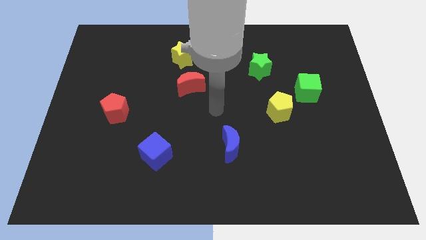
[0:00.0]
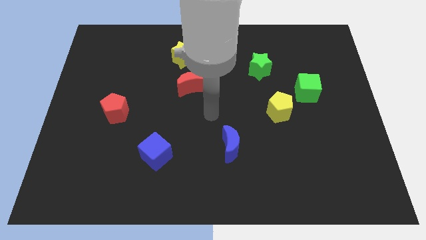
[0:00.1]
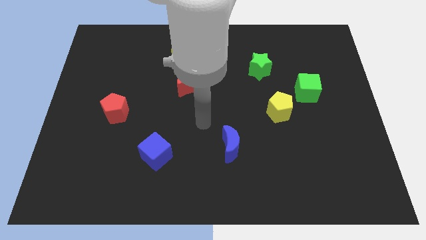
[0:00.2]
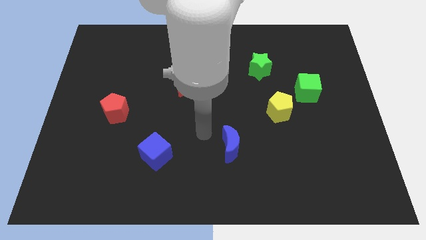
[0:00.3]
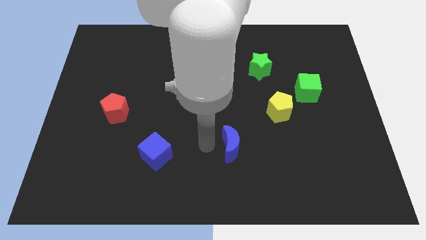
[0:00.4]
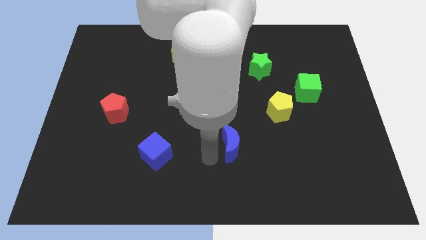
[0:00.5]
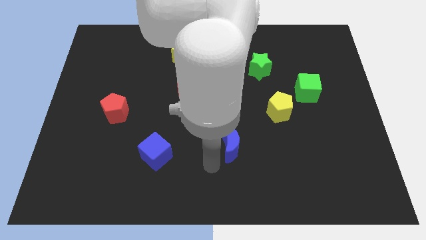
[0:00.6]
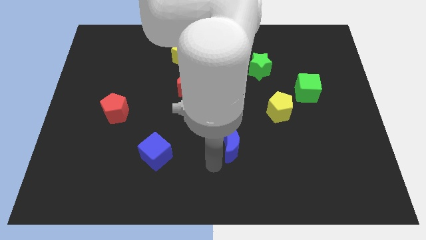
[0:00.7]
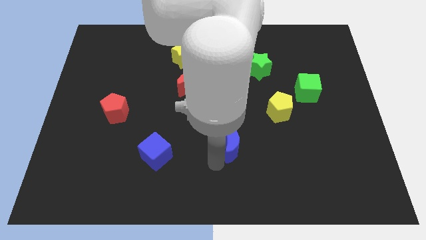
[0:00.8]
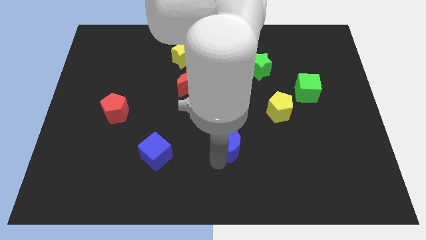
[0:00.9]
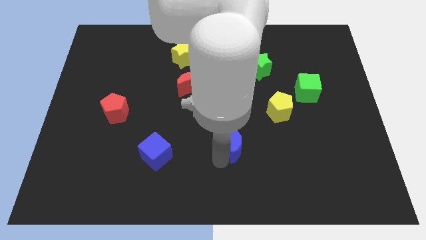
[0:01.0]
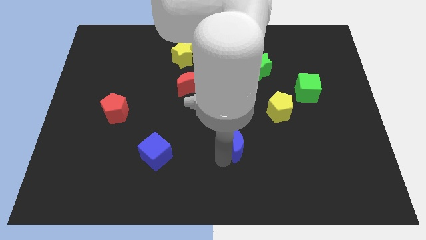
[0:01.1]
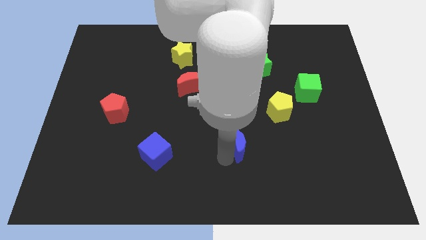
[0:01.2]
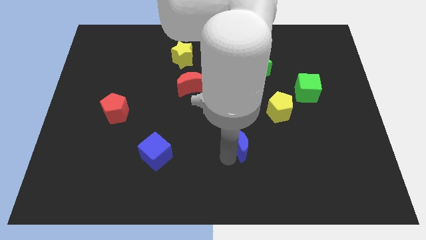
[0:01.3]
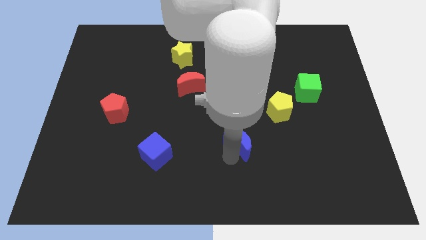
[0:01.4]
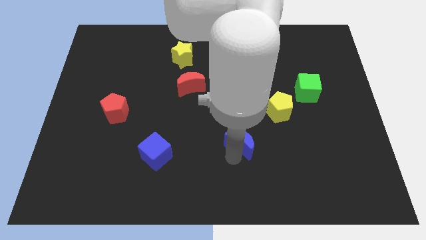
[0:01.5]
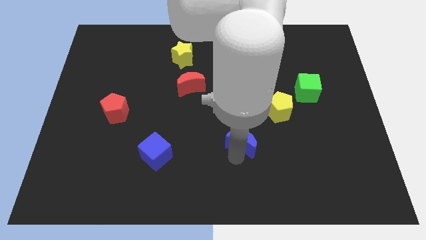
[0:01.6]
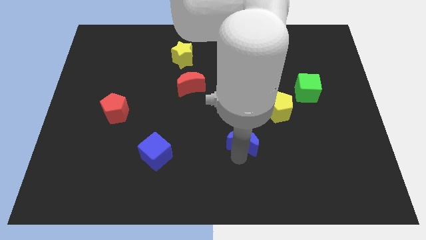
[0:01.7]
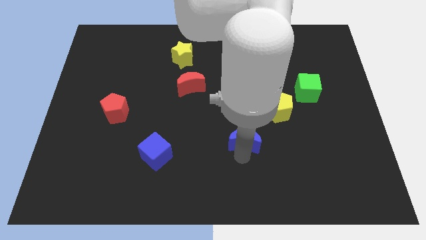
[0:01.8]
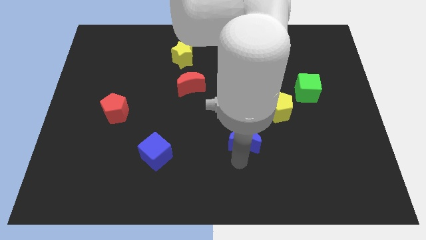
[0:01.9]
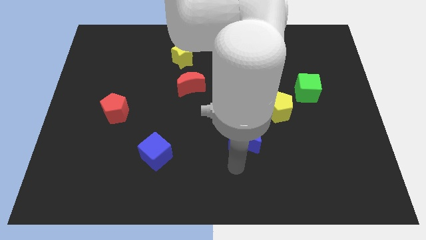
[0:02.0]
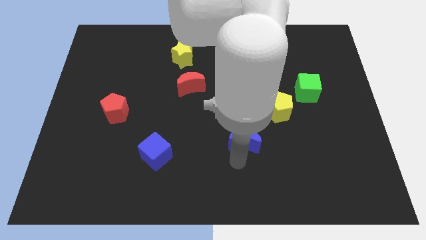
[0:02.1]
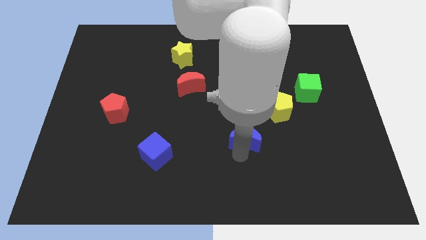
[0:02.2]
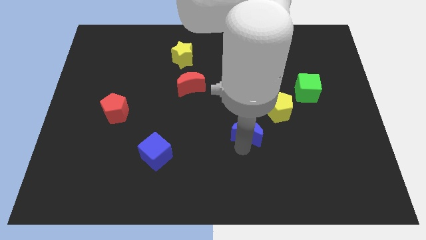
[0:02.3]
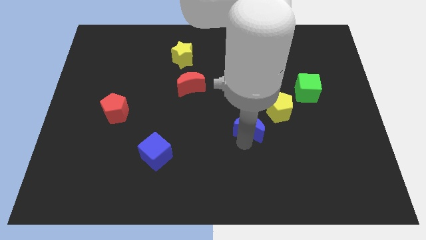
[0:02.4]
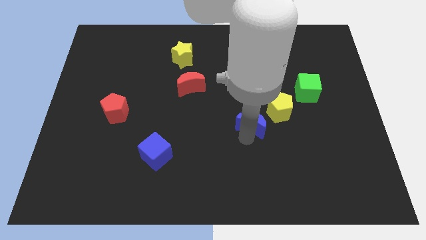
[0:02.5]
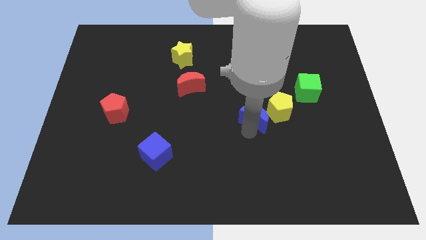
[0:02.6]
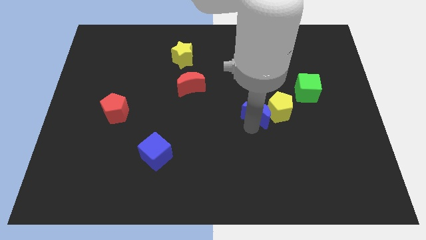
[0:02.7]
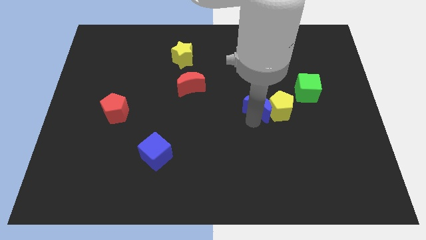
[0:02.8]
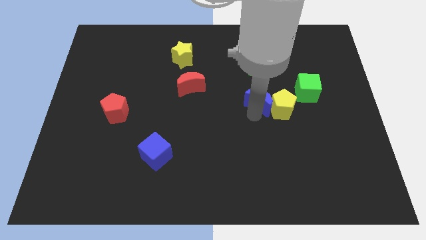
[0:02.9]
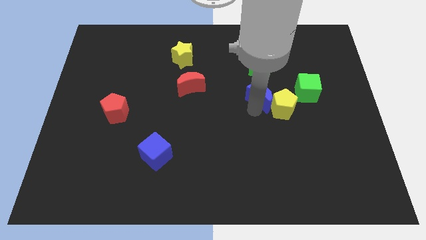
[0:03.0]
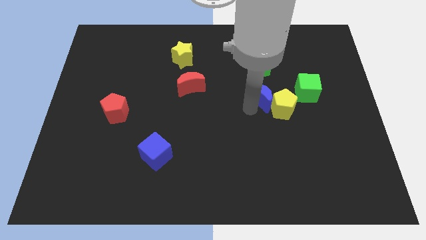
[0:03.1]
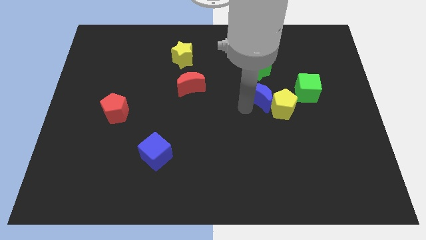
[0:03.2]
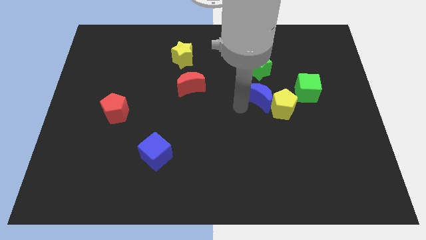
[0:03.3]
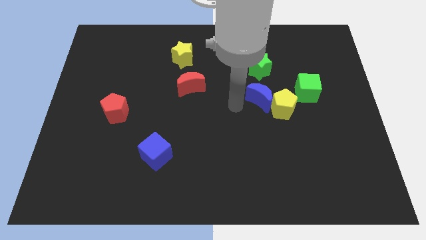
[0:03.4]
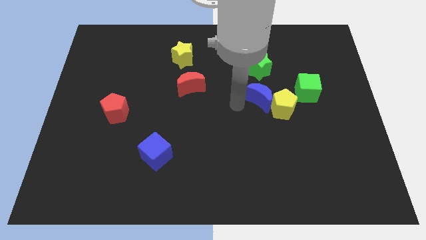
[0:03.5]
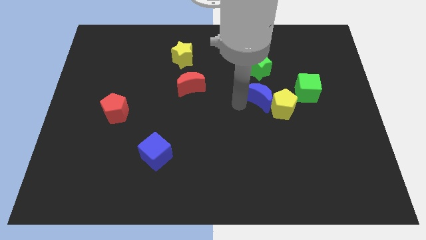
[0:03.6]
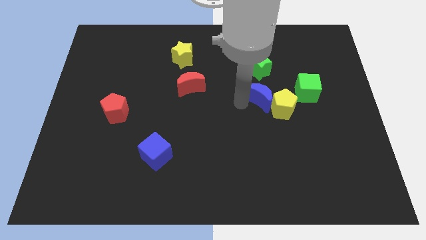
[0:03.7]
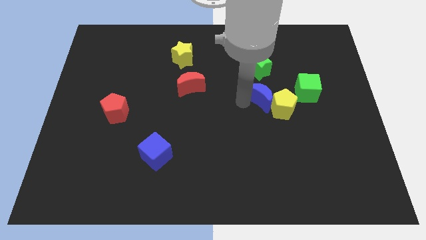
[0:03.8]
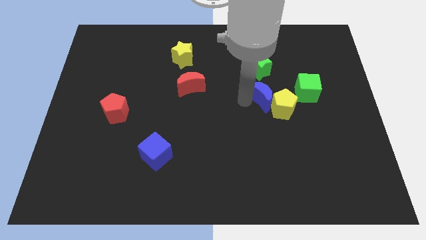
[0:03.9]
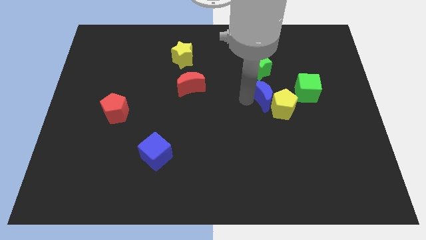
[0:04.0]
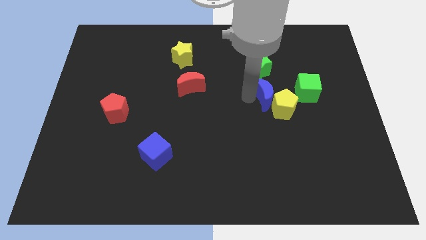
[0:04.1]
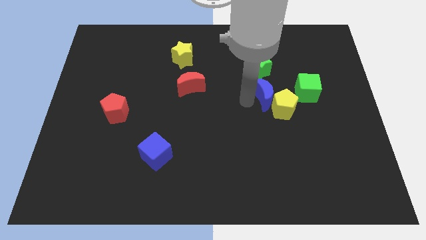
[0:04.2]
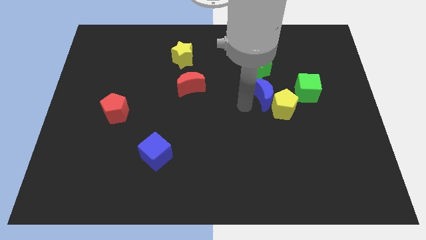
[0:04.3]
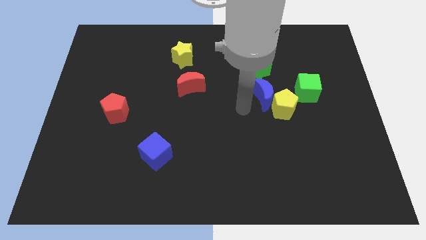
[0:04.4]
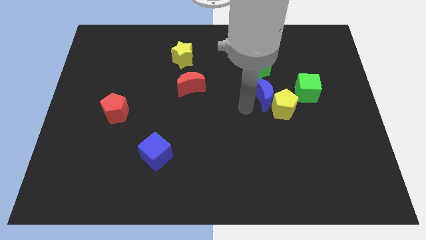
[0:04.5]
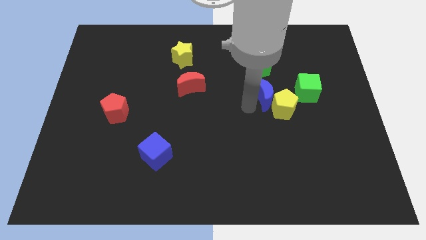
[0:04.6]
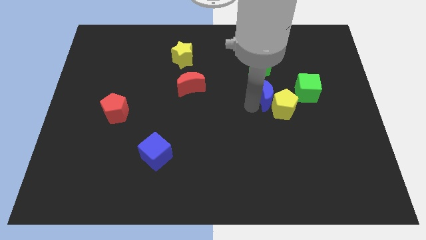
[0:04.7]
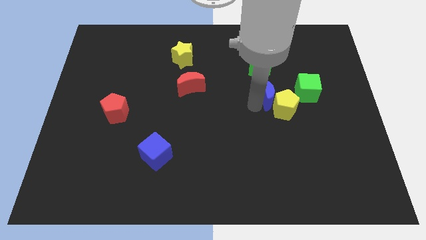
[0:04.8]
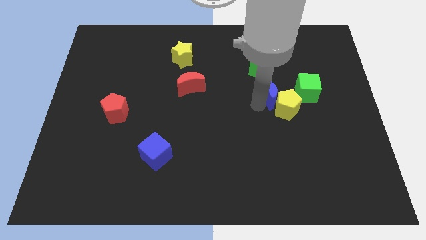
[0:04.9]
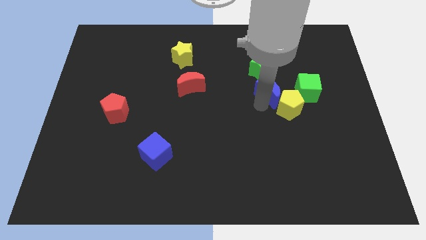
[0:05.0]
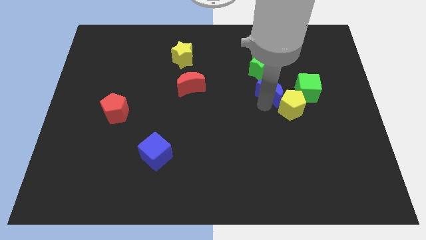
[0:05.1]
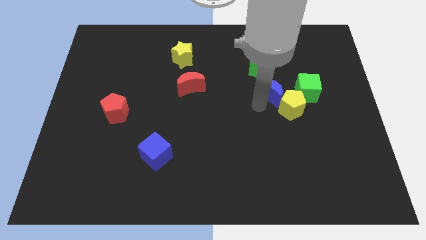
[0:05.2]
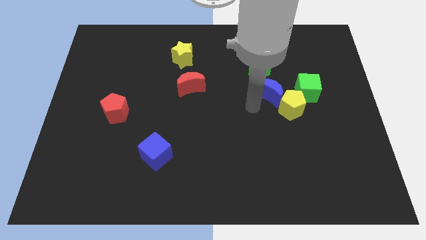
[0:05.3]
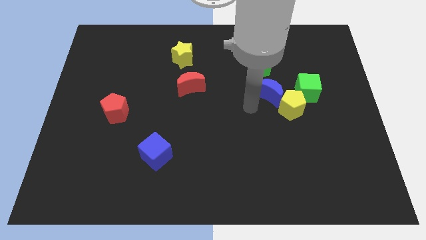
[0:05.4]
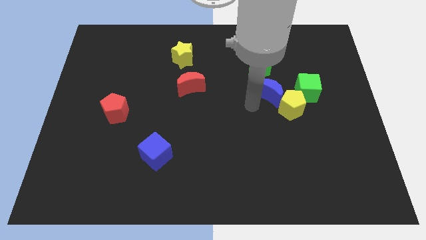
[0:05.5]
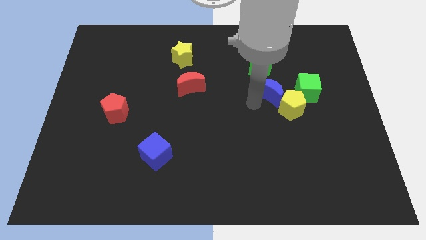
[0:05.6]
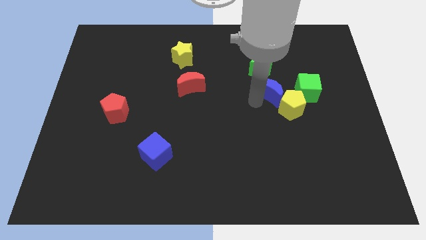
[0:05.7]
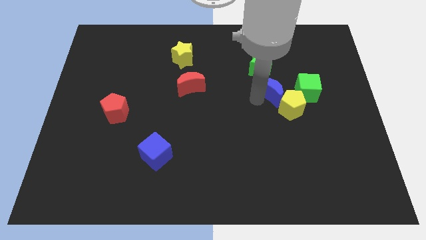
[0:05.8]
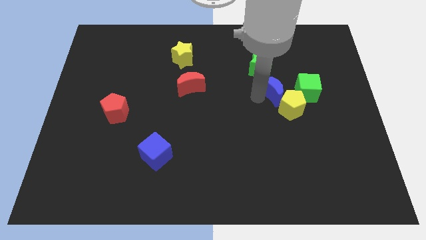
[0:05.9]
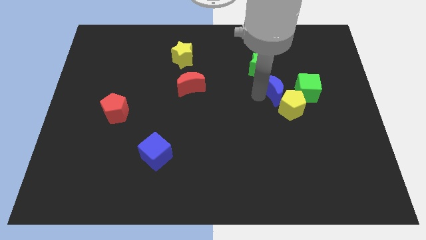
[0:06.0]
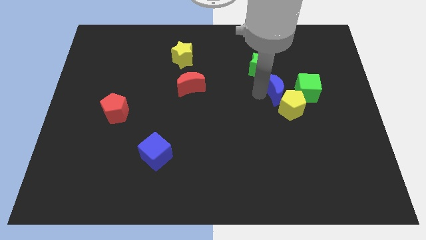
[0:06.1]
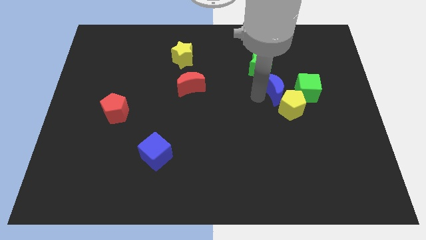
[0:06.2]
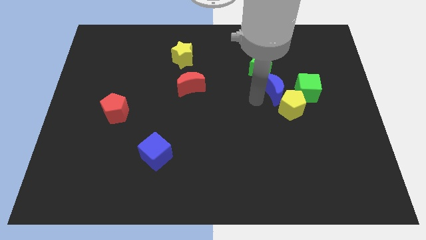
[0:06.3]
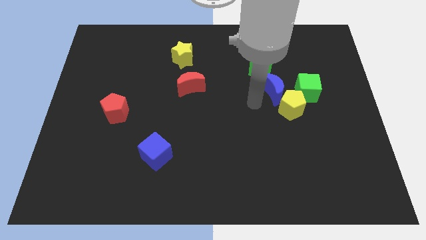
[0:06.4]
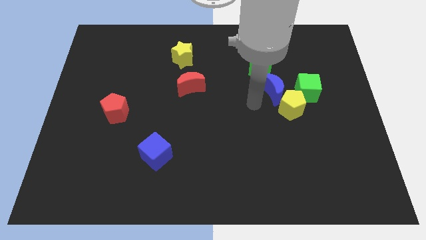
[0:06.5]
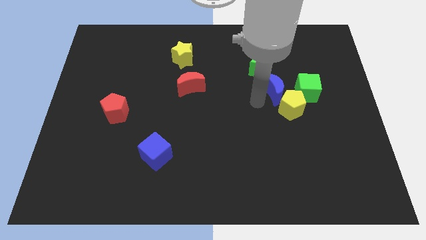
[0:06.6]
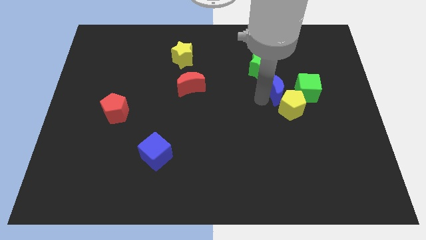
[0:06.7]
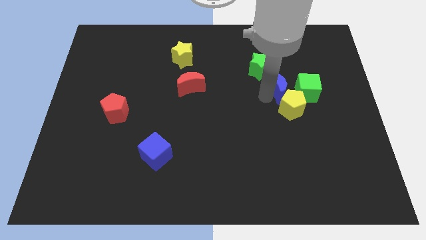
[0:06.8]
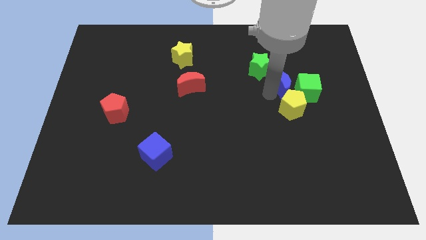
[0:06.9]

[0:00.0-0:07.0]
push the blue moon diagonally up and to the right

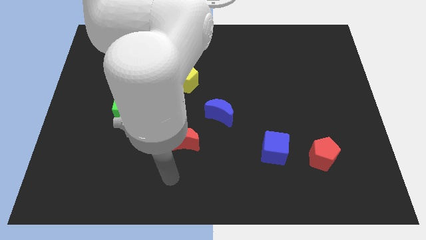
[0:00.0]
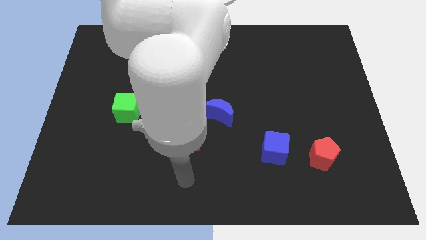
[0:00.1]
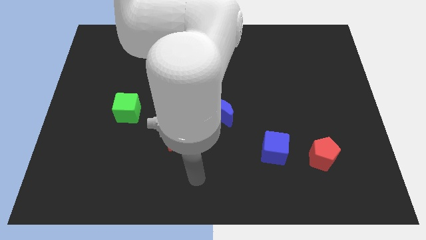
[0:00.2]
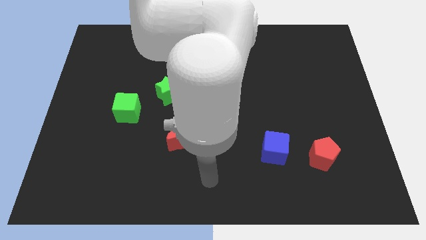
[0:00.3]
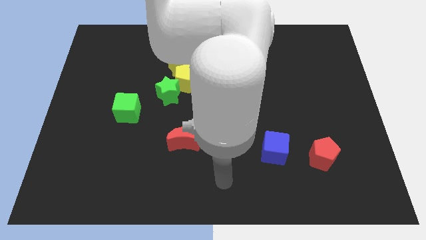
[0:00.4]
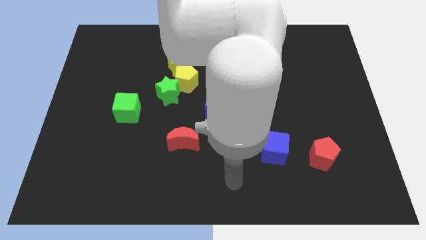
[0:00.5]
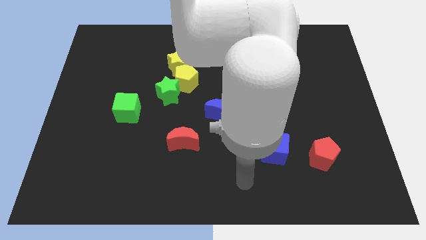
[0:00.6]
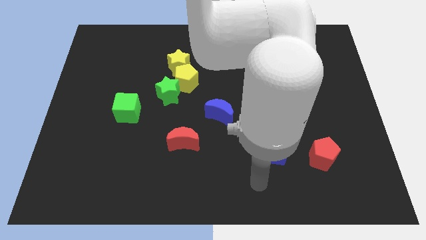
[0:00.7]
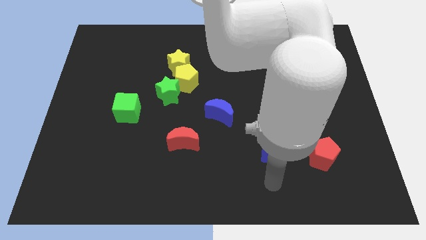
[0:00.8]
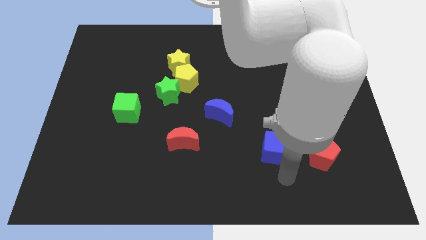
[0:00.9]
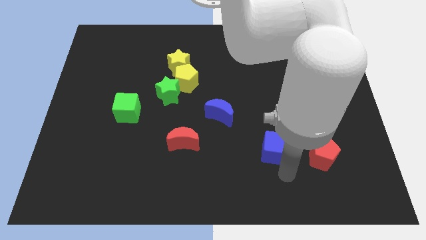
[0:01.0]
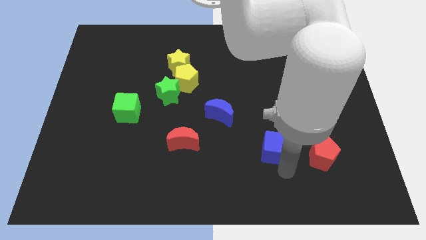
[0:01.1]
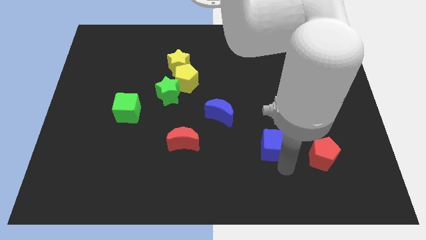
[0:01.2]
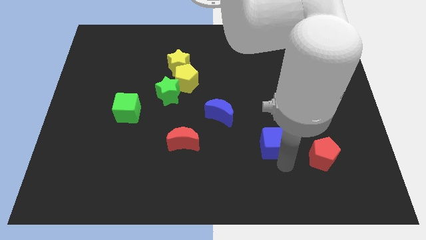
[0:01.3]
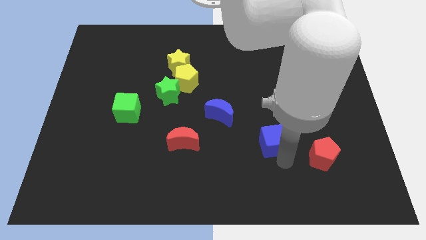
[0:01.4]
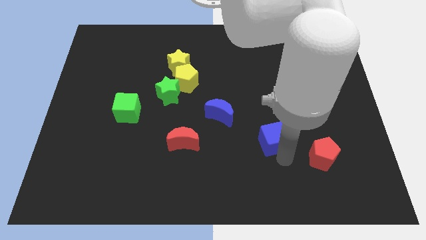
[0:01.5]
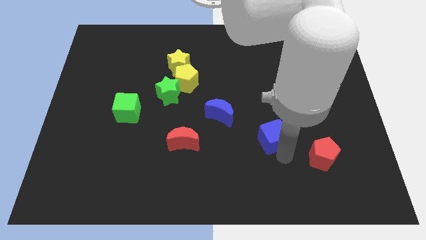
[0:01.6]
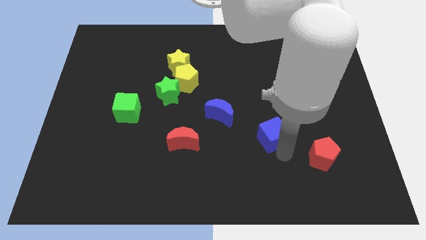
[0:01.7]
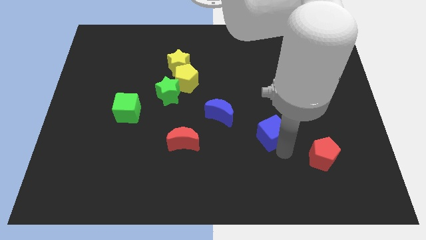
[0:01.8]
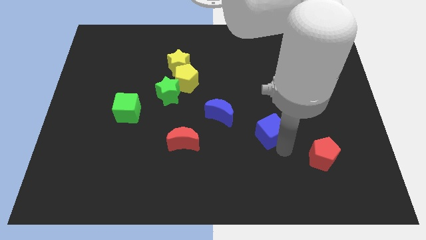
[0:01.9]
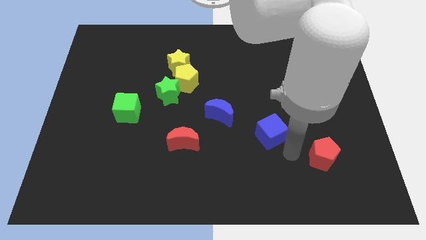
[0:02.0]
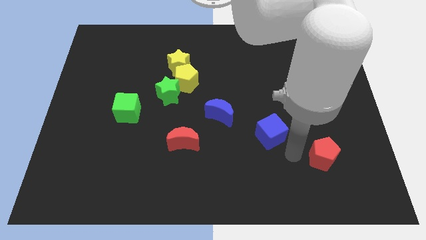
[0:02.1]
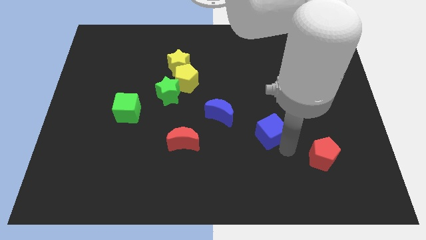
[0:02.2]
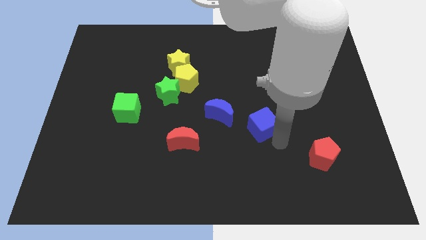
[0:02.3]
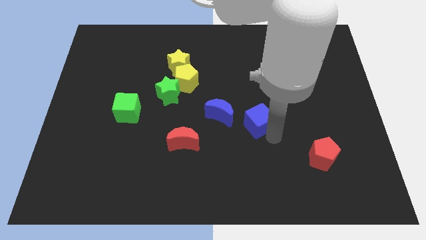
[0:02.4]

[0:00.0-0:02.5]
move the blue cube a bit diagonally up and left
